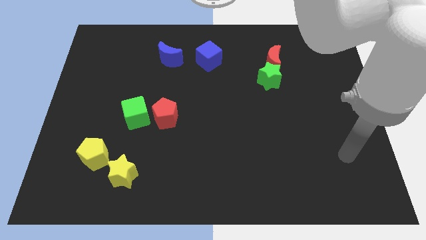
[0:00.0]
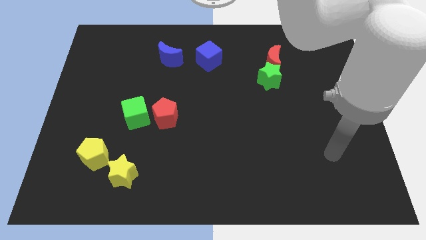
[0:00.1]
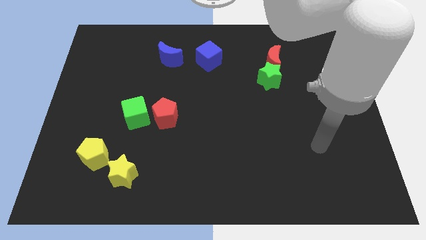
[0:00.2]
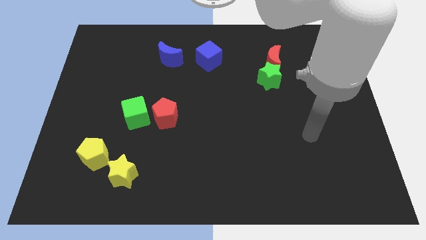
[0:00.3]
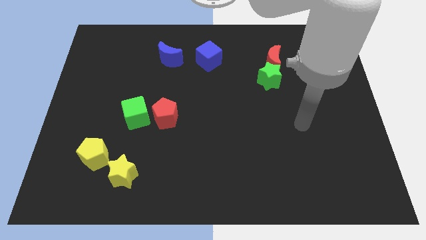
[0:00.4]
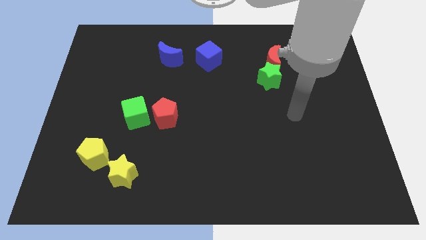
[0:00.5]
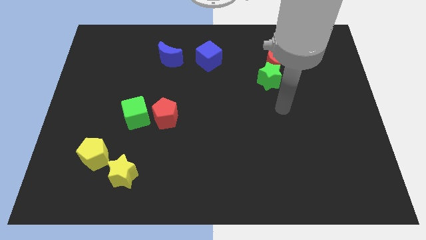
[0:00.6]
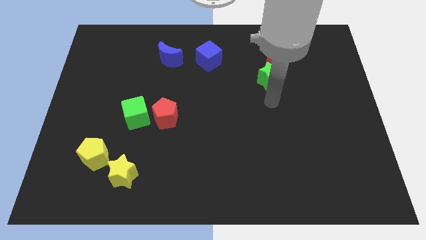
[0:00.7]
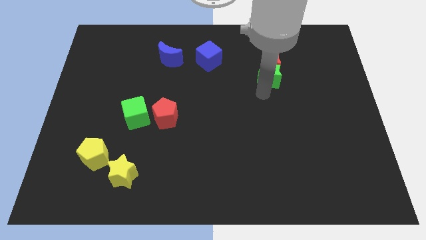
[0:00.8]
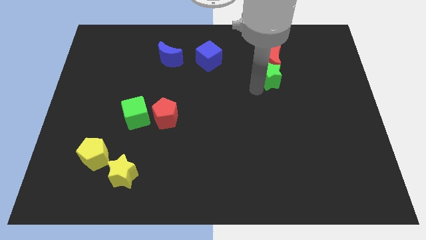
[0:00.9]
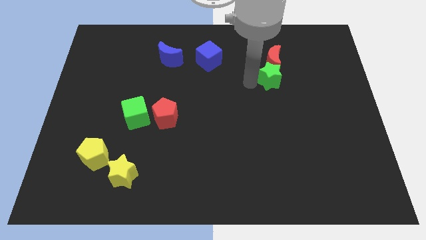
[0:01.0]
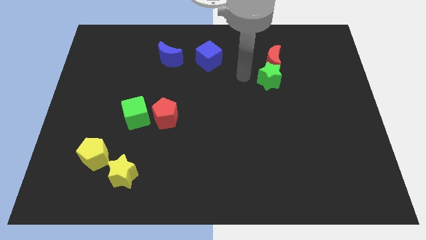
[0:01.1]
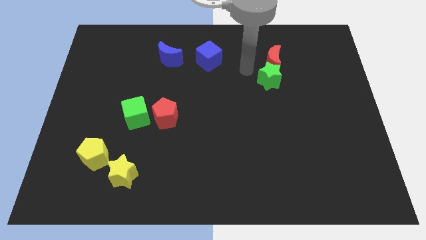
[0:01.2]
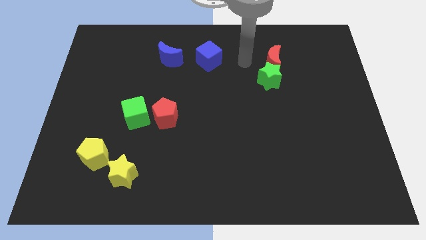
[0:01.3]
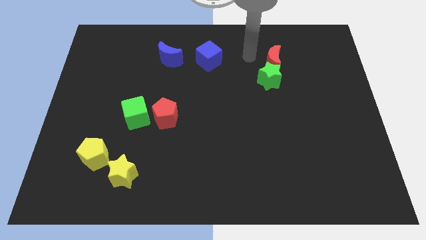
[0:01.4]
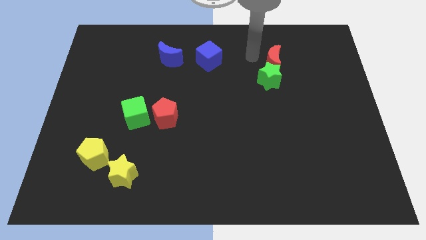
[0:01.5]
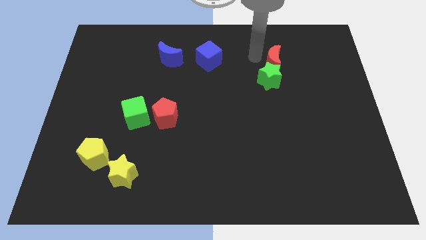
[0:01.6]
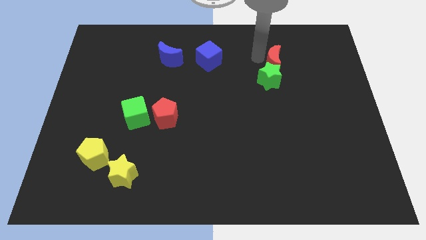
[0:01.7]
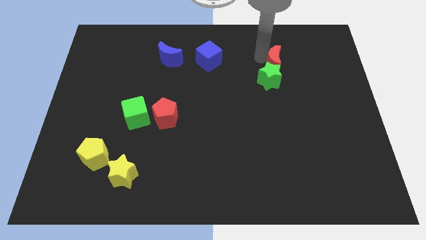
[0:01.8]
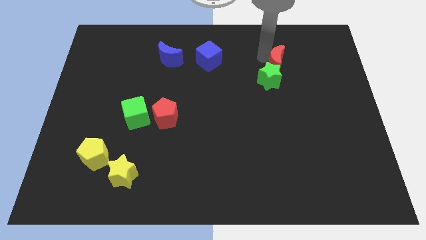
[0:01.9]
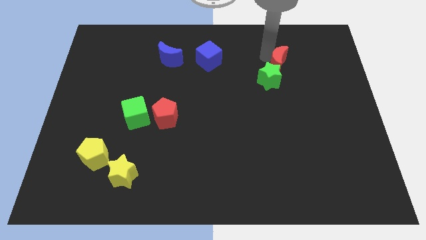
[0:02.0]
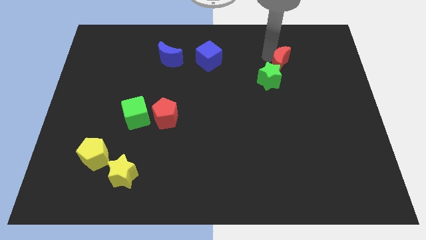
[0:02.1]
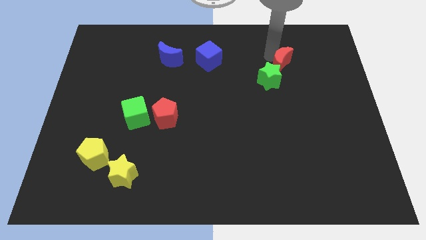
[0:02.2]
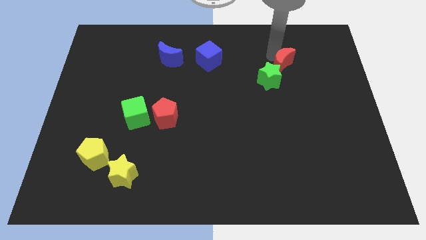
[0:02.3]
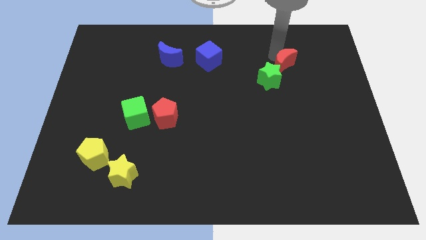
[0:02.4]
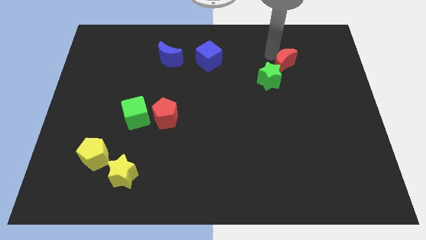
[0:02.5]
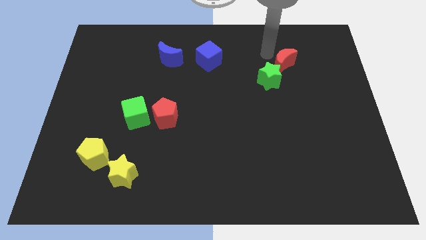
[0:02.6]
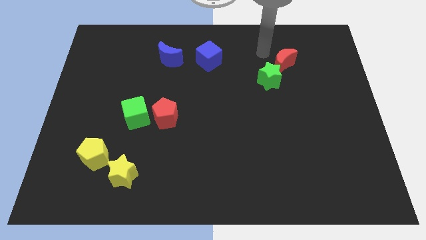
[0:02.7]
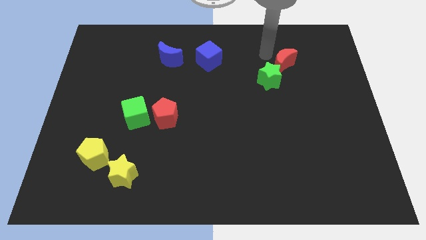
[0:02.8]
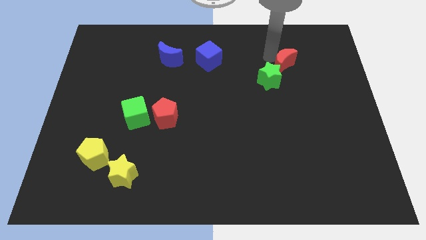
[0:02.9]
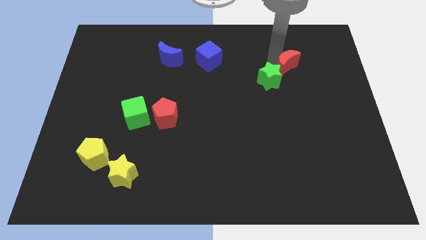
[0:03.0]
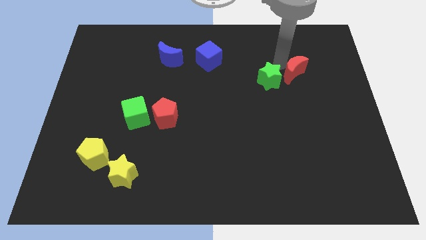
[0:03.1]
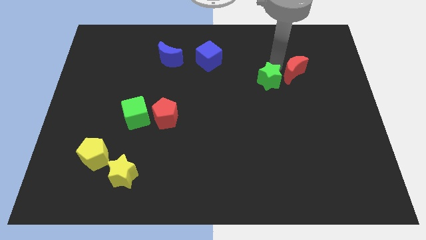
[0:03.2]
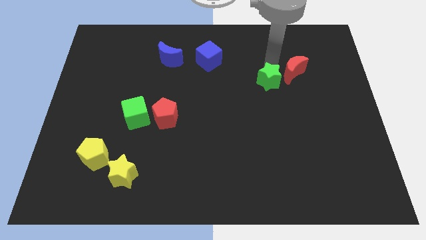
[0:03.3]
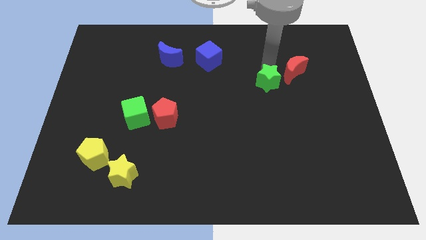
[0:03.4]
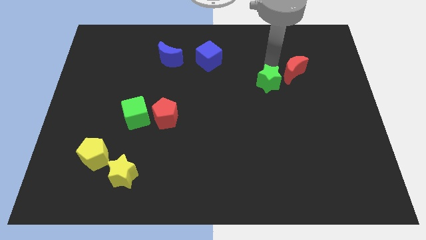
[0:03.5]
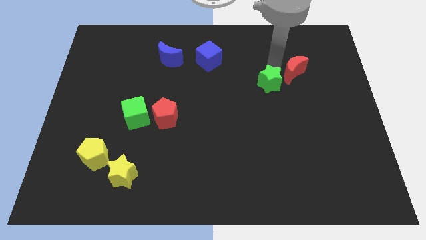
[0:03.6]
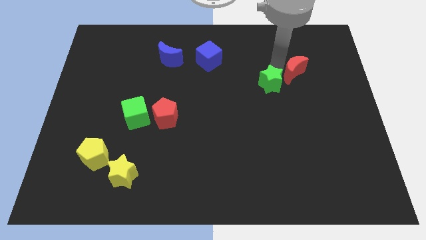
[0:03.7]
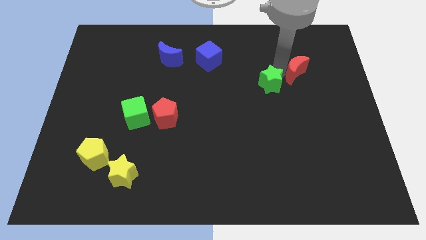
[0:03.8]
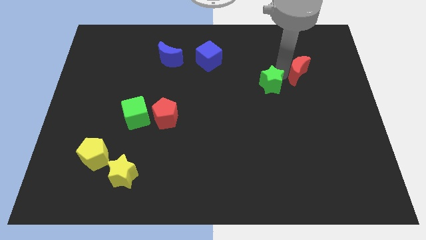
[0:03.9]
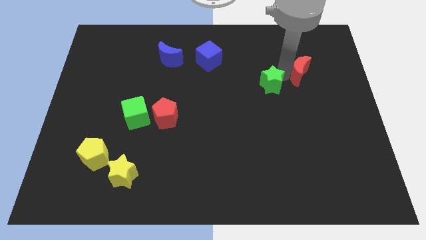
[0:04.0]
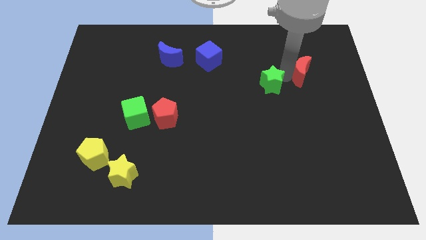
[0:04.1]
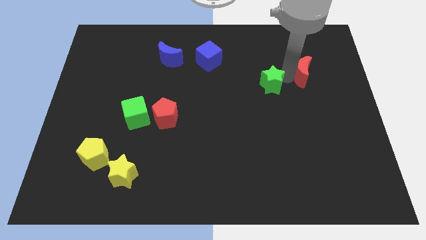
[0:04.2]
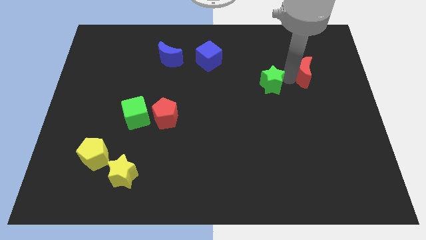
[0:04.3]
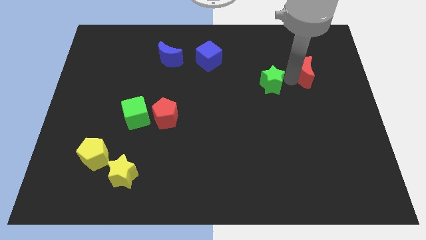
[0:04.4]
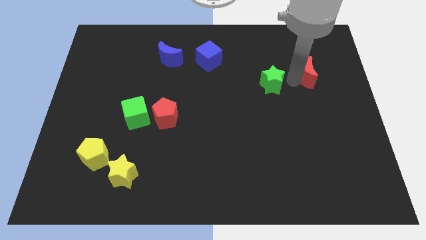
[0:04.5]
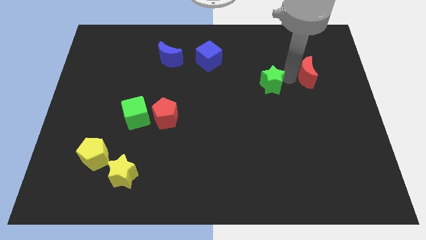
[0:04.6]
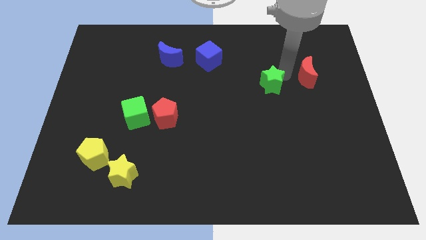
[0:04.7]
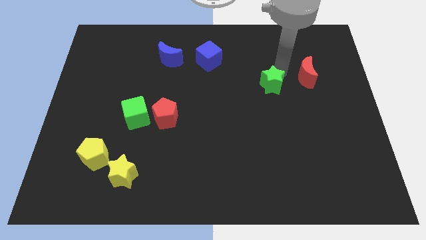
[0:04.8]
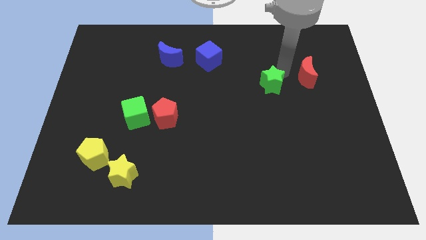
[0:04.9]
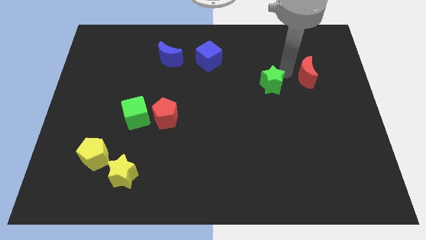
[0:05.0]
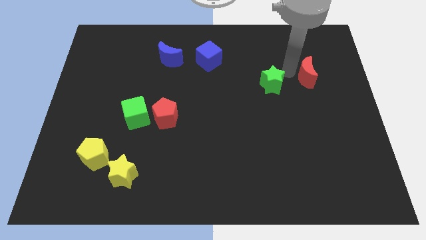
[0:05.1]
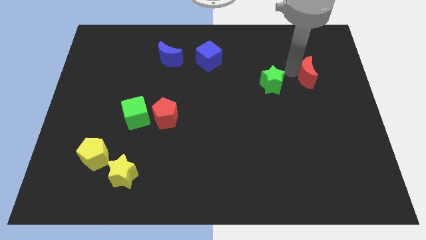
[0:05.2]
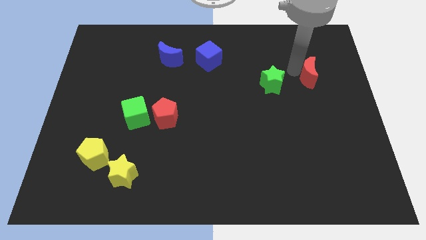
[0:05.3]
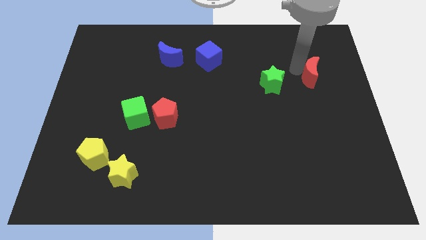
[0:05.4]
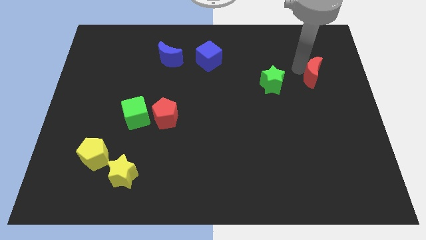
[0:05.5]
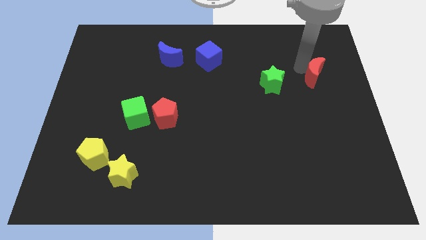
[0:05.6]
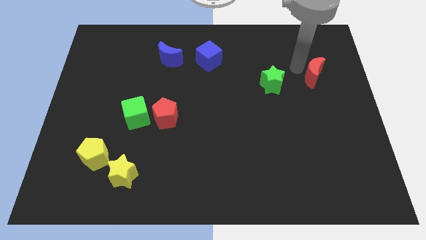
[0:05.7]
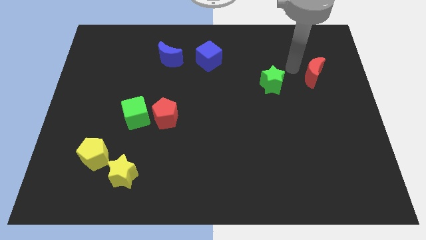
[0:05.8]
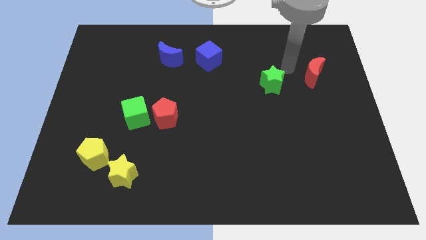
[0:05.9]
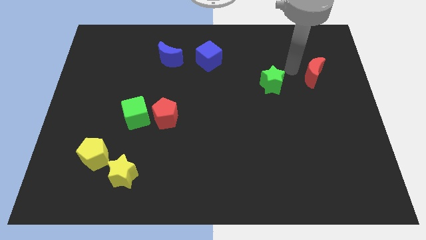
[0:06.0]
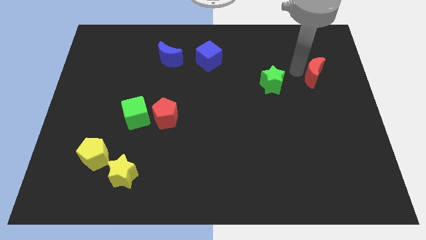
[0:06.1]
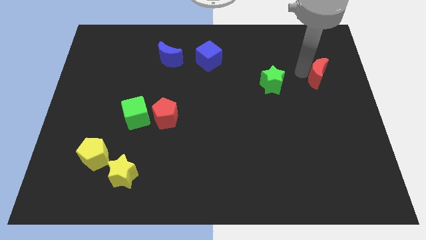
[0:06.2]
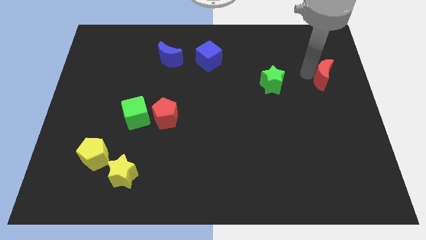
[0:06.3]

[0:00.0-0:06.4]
put the red moon to the right side of the board
